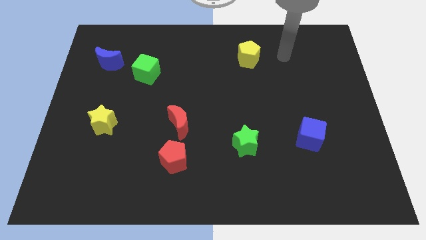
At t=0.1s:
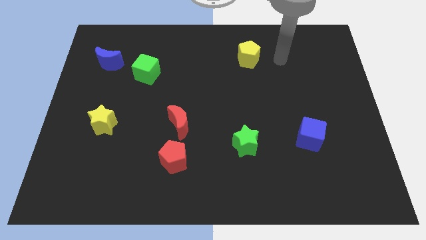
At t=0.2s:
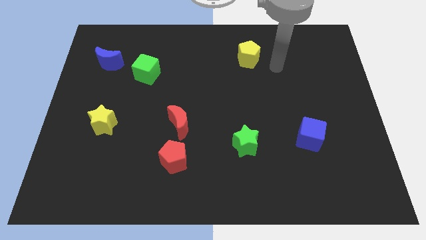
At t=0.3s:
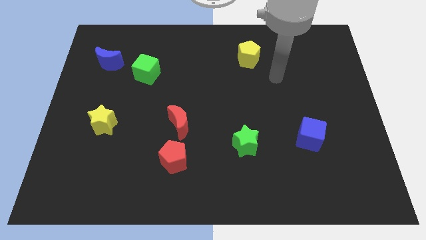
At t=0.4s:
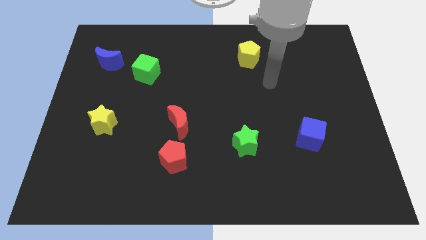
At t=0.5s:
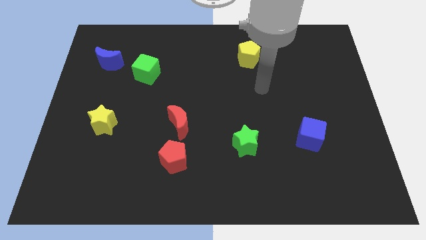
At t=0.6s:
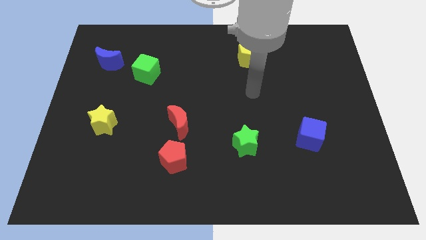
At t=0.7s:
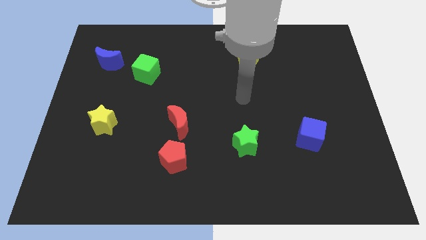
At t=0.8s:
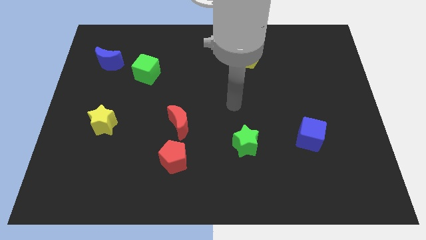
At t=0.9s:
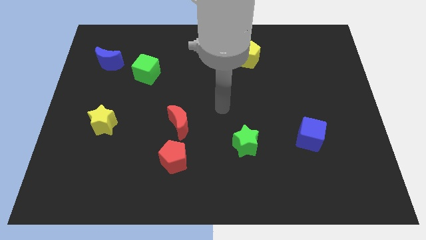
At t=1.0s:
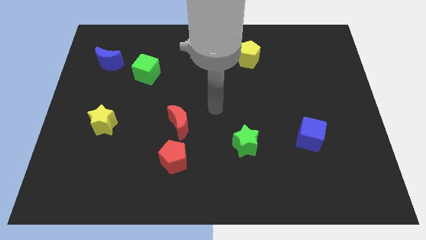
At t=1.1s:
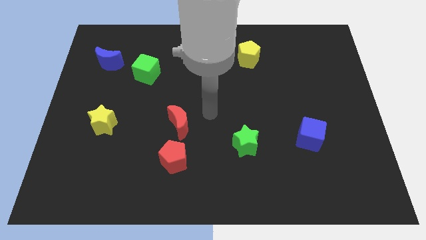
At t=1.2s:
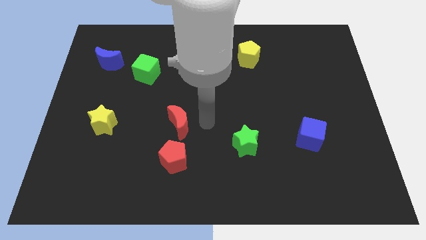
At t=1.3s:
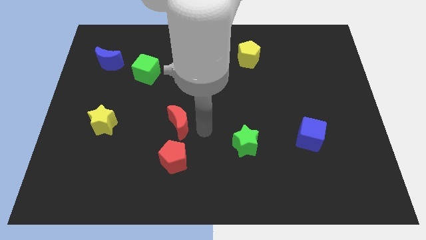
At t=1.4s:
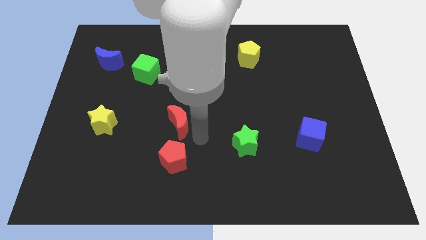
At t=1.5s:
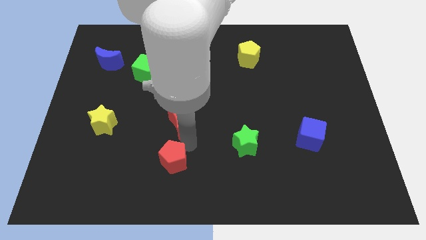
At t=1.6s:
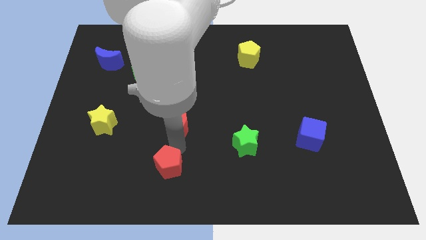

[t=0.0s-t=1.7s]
pull the red moon apart from the red pentagon

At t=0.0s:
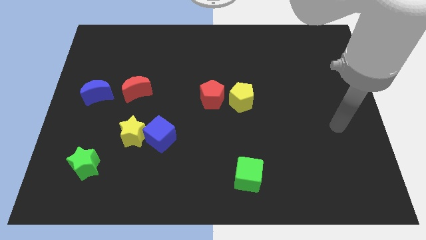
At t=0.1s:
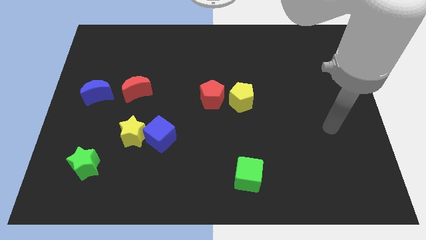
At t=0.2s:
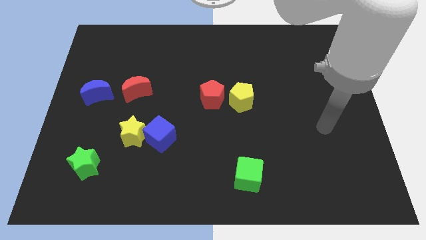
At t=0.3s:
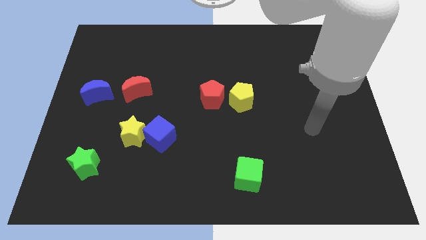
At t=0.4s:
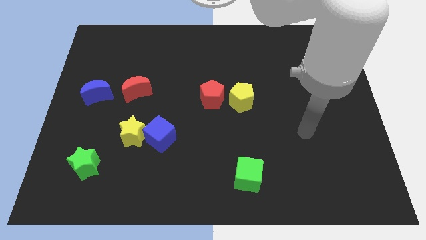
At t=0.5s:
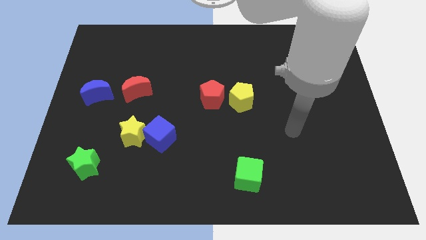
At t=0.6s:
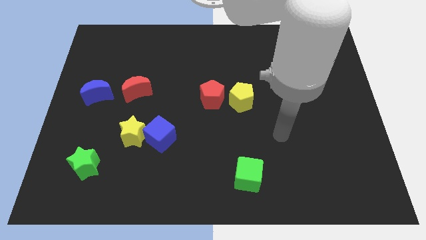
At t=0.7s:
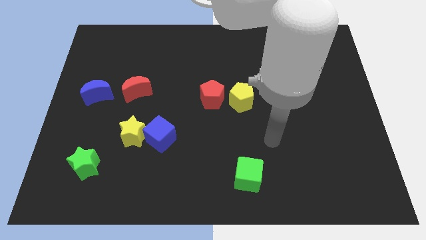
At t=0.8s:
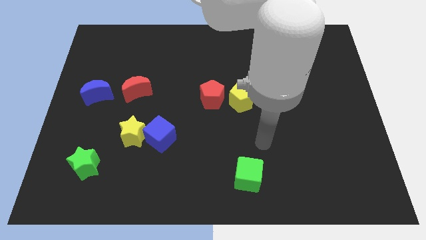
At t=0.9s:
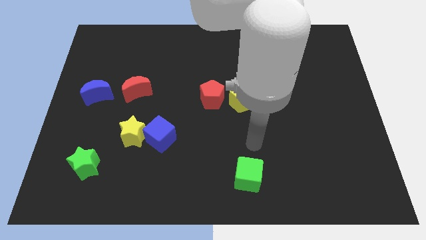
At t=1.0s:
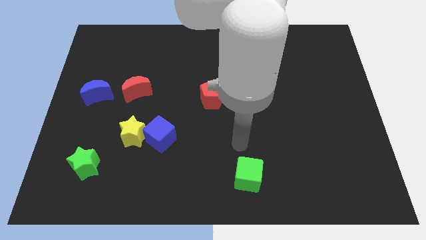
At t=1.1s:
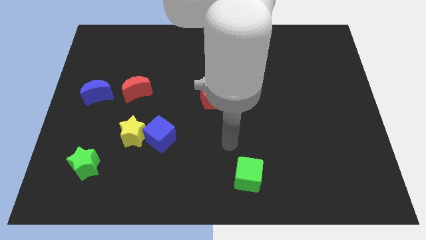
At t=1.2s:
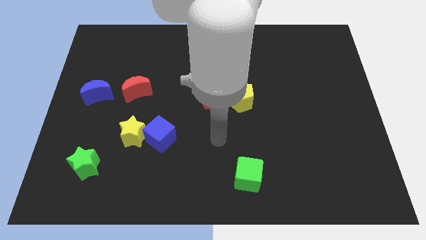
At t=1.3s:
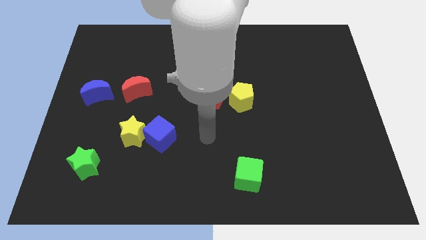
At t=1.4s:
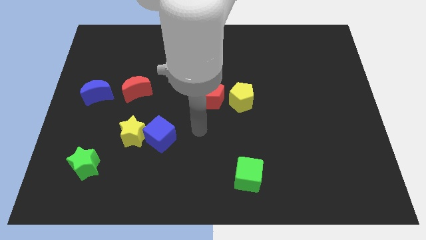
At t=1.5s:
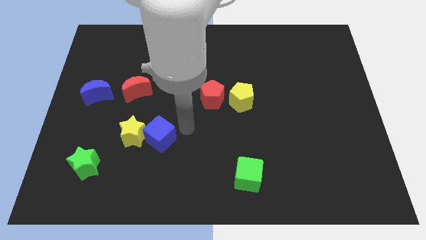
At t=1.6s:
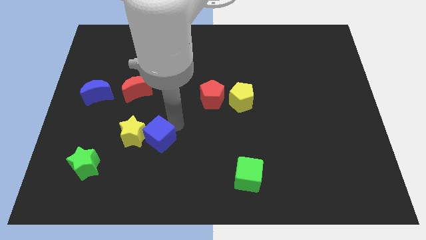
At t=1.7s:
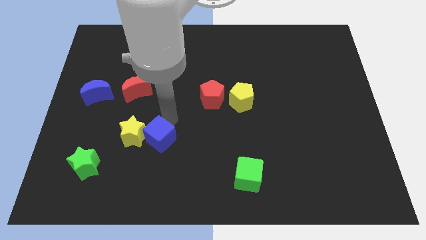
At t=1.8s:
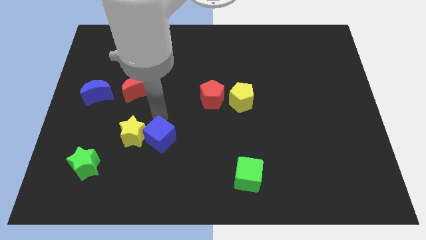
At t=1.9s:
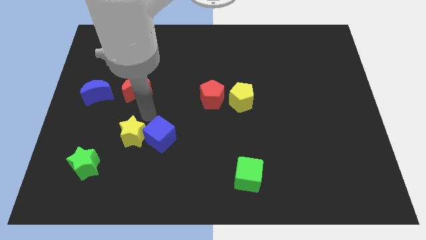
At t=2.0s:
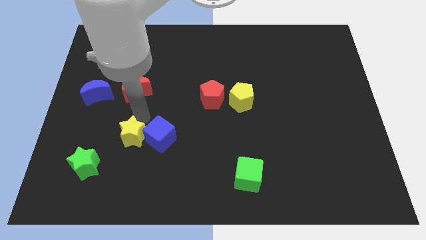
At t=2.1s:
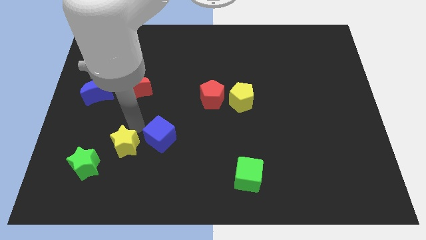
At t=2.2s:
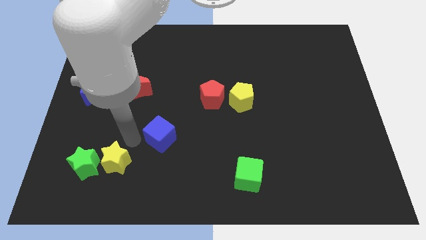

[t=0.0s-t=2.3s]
pull the blue cube apart from the yellow star

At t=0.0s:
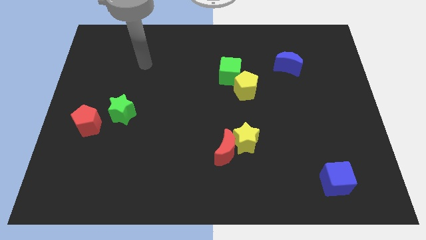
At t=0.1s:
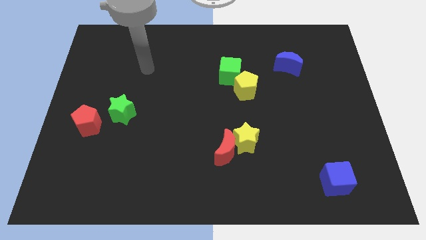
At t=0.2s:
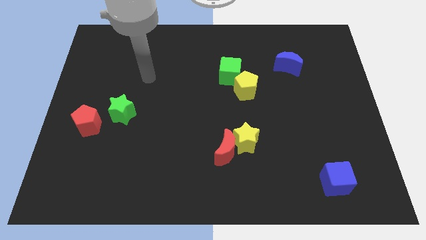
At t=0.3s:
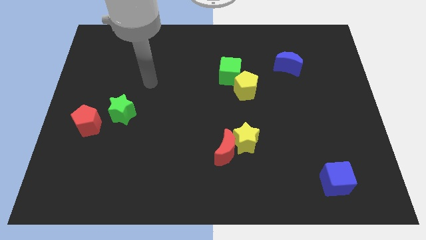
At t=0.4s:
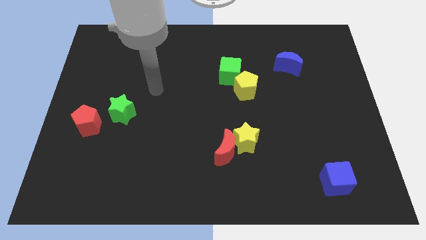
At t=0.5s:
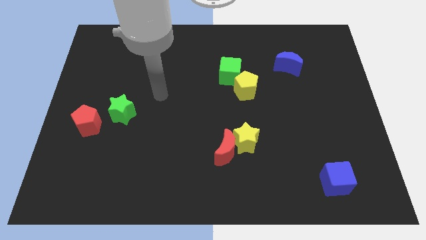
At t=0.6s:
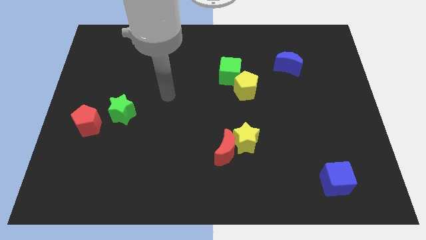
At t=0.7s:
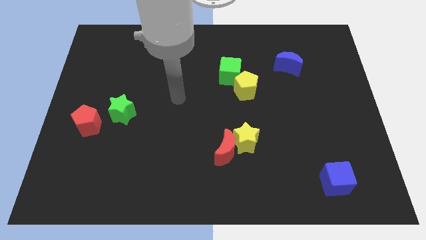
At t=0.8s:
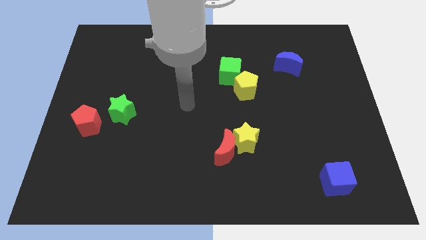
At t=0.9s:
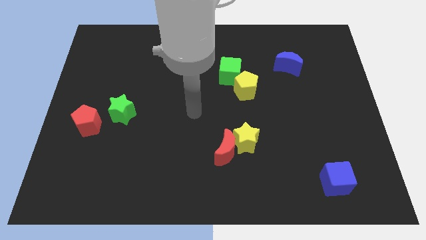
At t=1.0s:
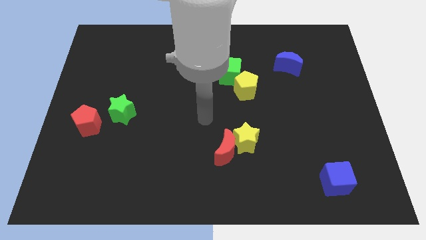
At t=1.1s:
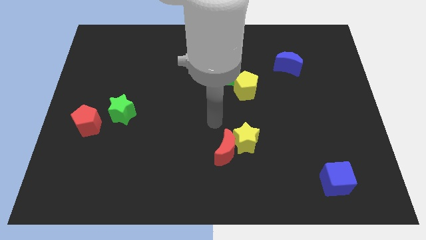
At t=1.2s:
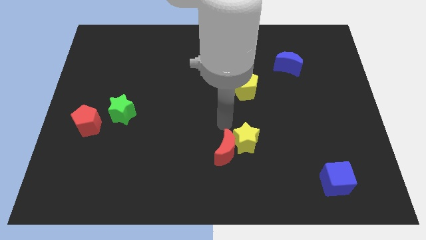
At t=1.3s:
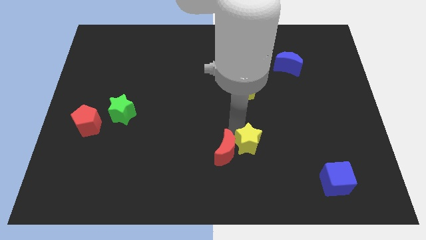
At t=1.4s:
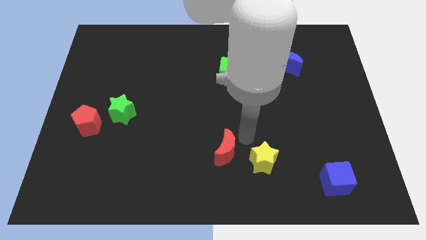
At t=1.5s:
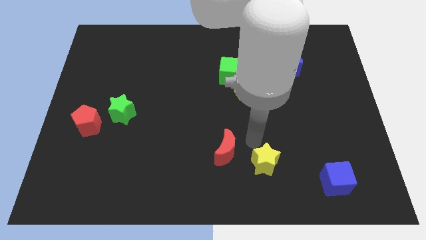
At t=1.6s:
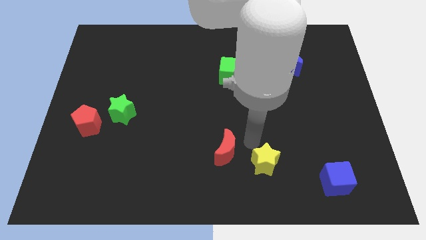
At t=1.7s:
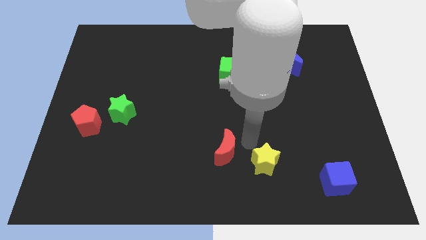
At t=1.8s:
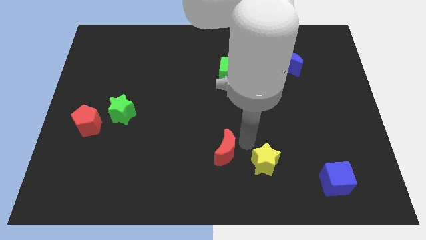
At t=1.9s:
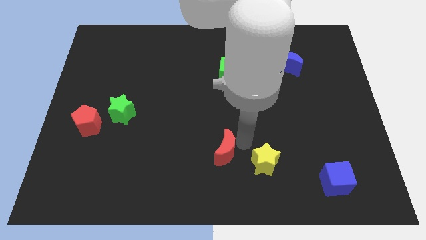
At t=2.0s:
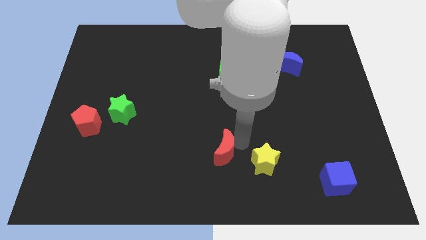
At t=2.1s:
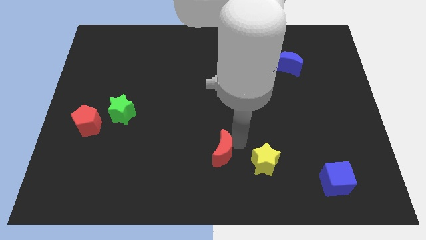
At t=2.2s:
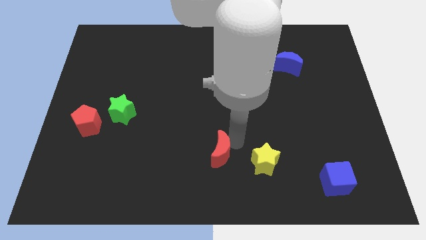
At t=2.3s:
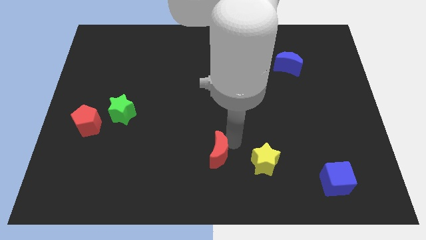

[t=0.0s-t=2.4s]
pull the red moon apart from the yellow star

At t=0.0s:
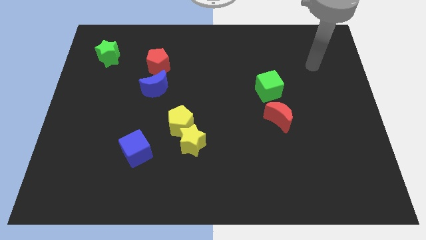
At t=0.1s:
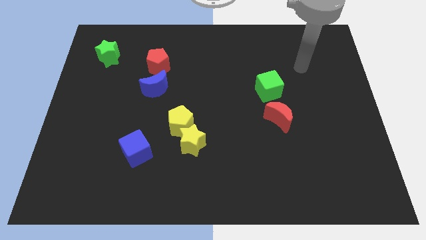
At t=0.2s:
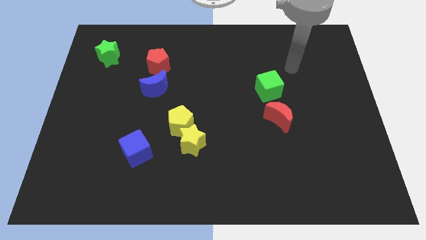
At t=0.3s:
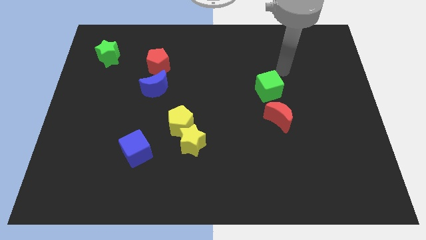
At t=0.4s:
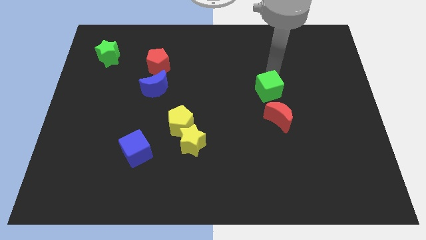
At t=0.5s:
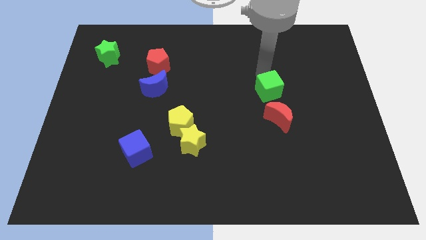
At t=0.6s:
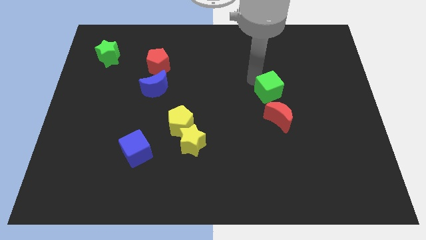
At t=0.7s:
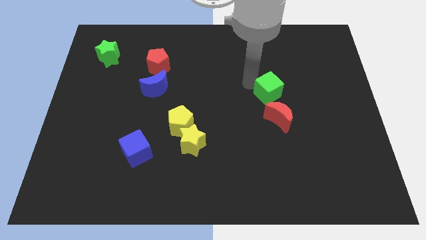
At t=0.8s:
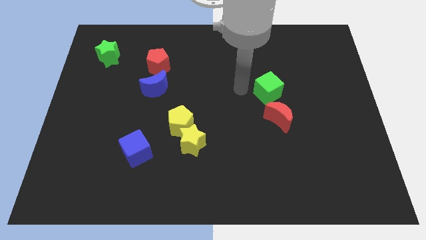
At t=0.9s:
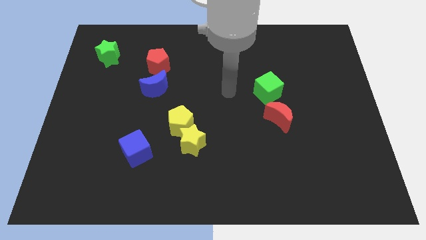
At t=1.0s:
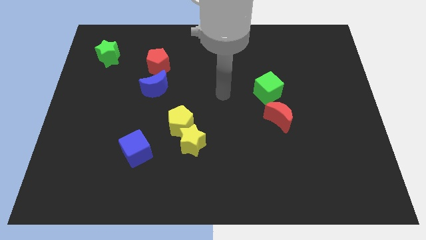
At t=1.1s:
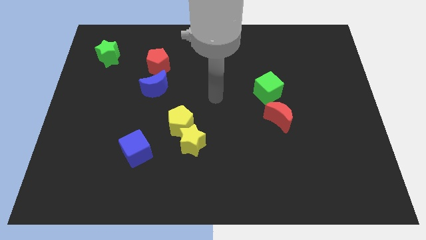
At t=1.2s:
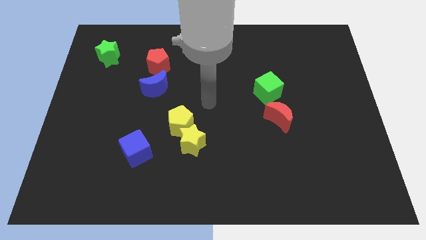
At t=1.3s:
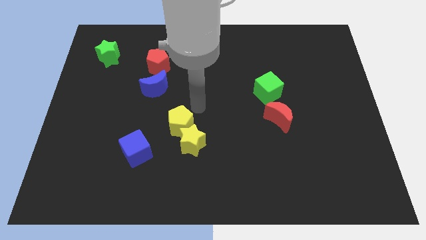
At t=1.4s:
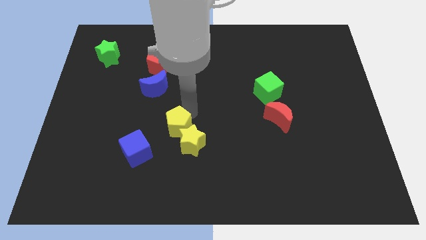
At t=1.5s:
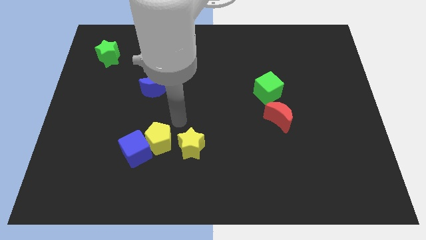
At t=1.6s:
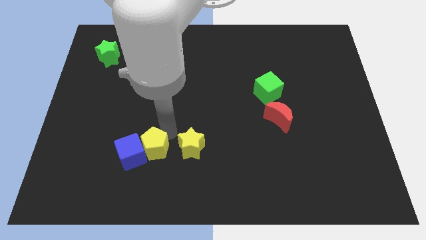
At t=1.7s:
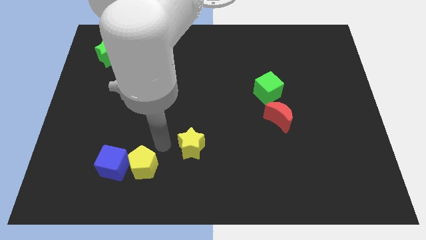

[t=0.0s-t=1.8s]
move the yellow star away from the yellow pentagon

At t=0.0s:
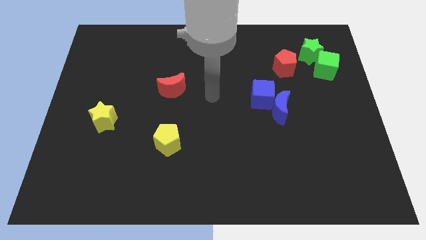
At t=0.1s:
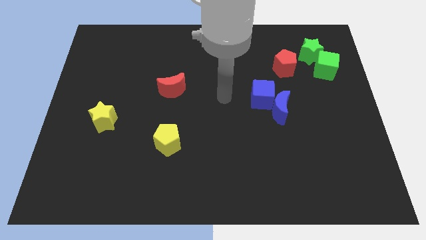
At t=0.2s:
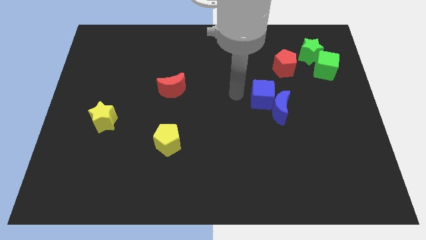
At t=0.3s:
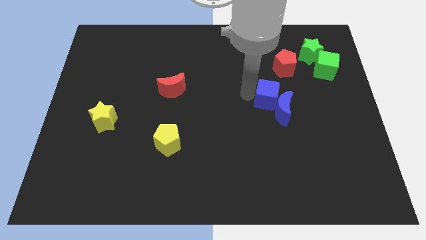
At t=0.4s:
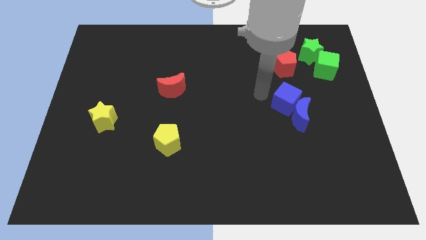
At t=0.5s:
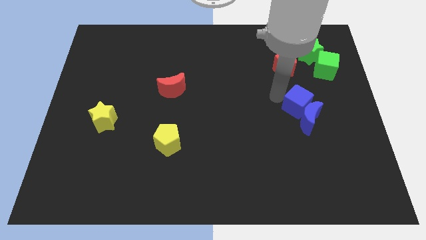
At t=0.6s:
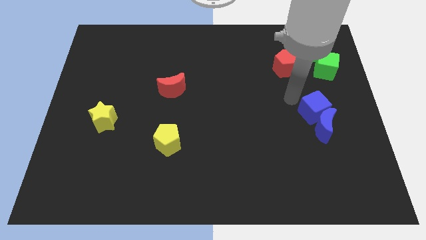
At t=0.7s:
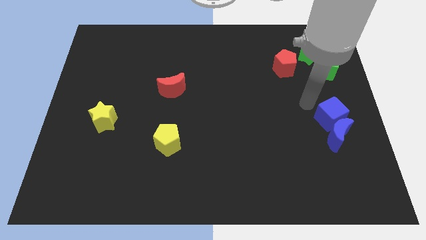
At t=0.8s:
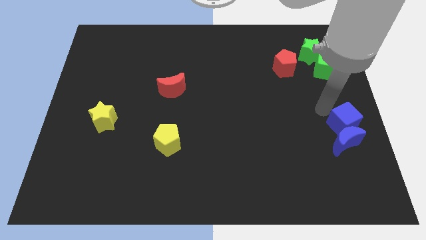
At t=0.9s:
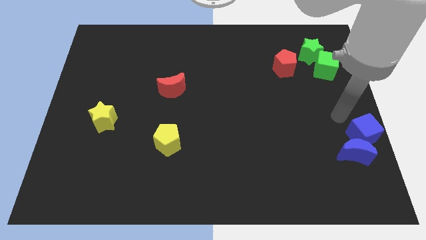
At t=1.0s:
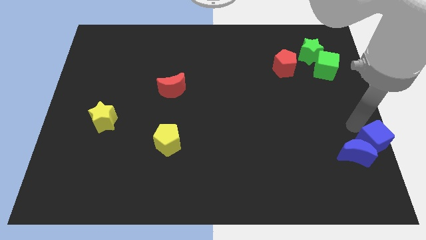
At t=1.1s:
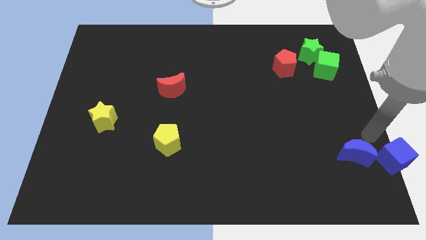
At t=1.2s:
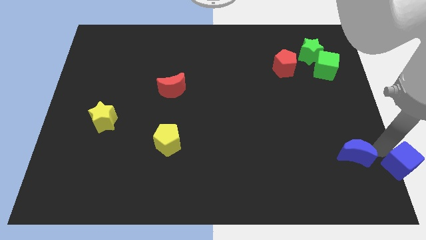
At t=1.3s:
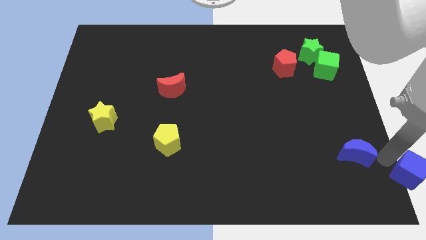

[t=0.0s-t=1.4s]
move the blue moon away from the blue cube
